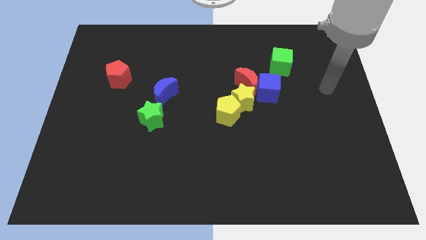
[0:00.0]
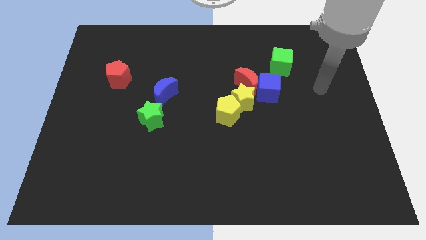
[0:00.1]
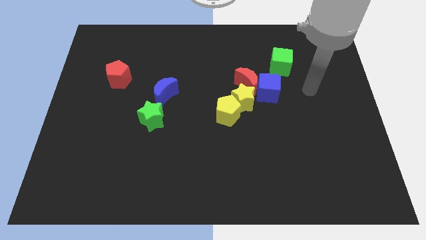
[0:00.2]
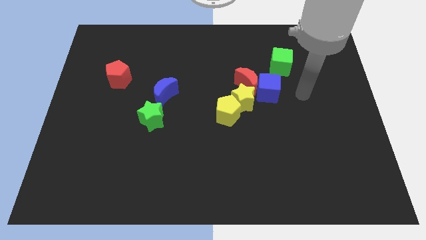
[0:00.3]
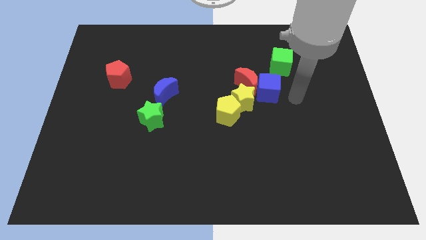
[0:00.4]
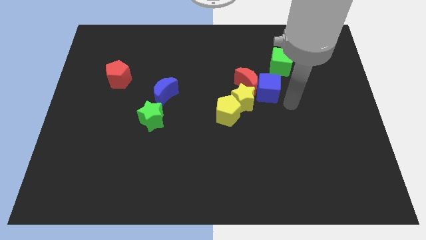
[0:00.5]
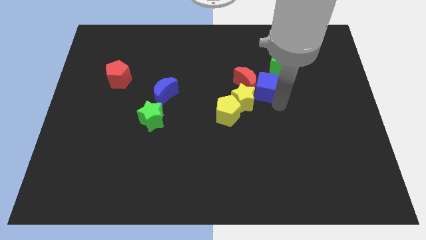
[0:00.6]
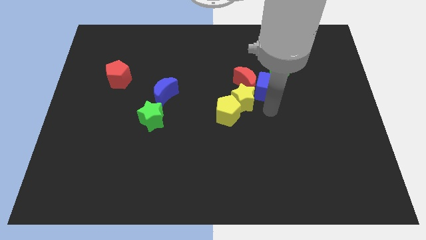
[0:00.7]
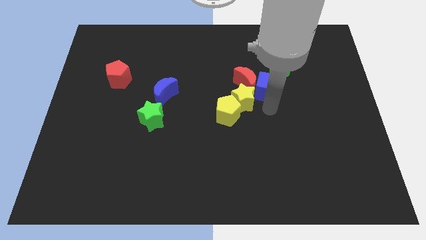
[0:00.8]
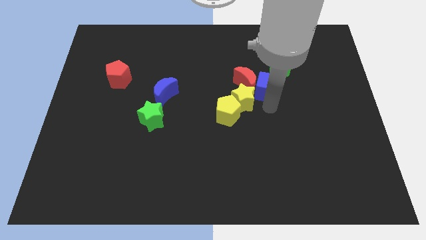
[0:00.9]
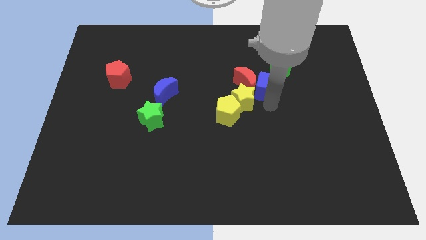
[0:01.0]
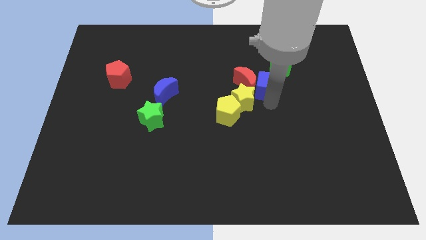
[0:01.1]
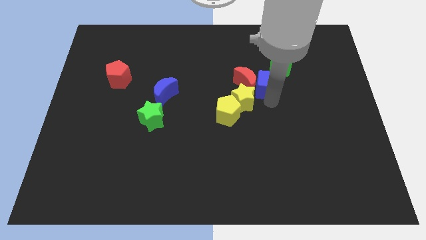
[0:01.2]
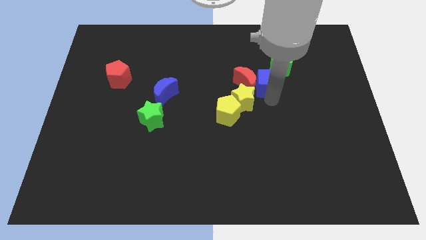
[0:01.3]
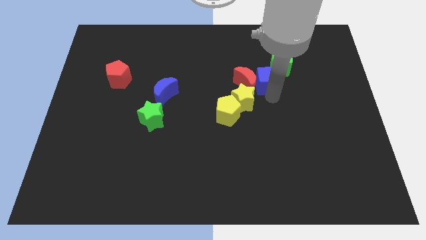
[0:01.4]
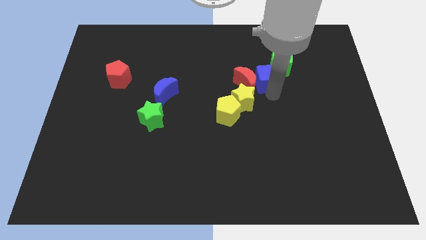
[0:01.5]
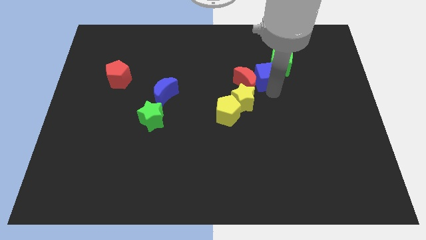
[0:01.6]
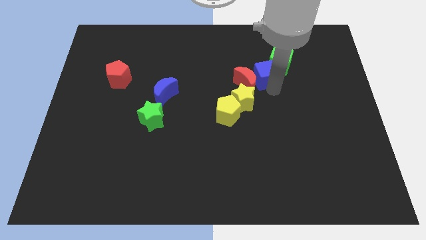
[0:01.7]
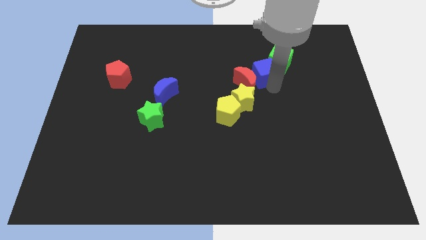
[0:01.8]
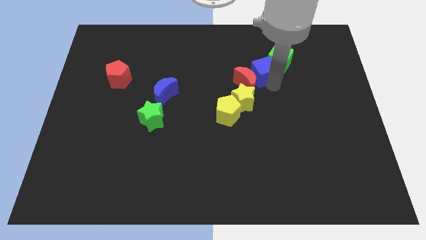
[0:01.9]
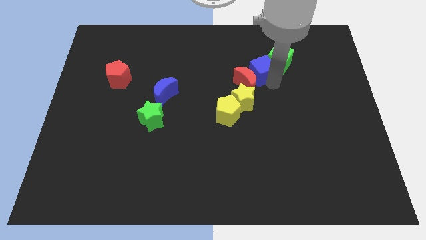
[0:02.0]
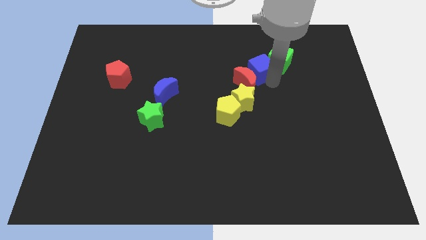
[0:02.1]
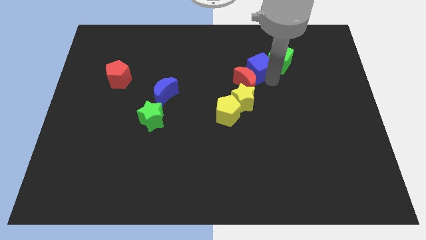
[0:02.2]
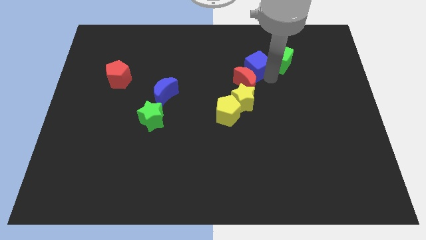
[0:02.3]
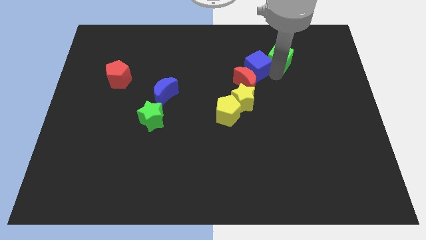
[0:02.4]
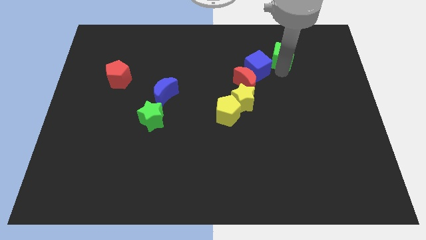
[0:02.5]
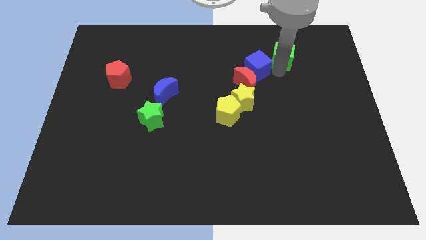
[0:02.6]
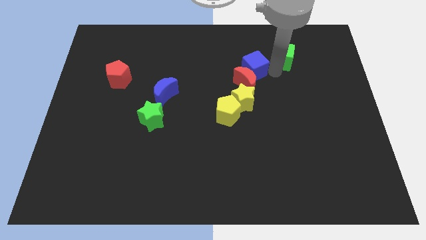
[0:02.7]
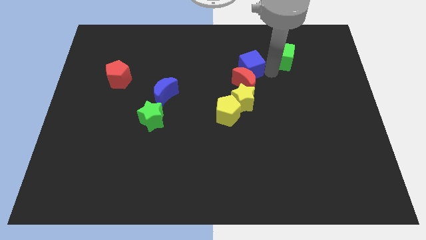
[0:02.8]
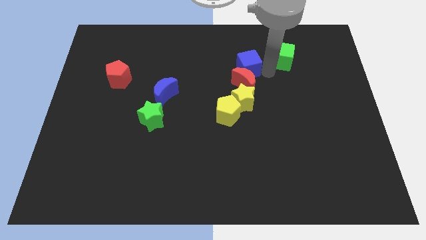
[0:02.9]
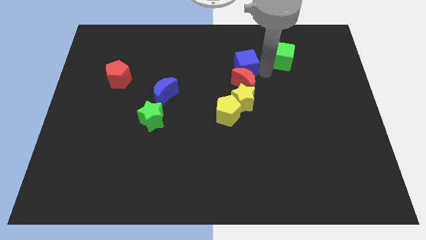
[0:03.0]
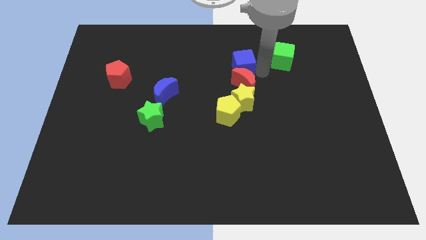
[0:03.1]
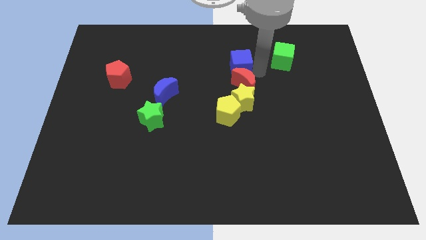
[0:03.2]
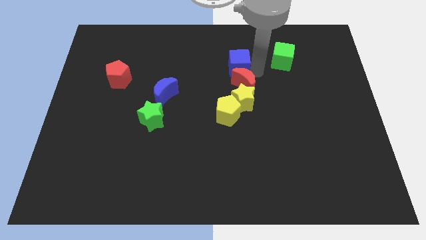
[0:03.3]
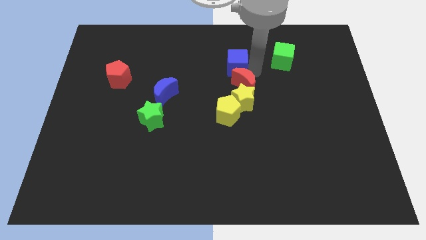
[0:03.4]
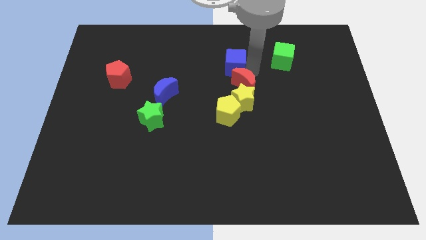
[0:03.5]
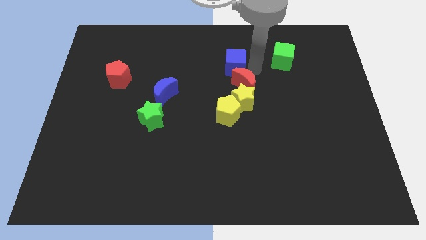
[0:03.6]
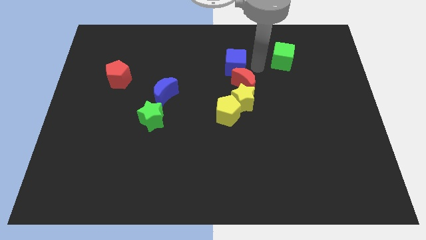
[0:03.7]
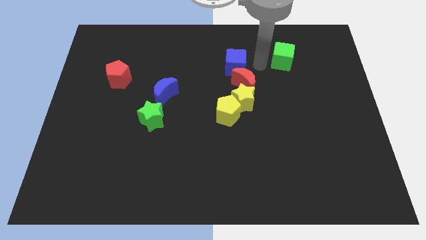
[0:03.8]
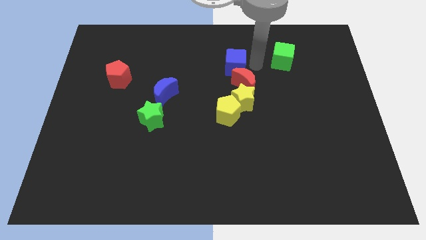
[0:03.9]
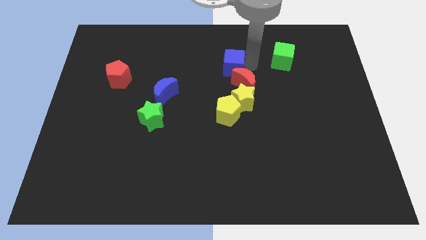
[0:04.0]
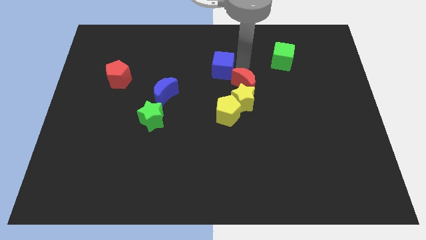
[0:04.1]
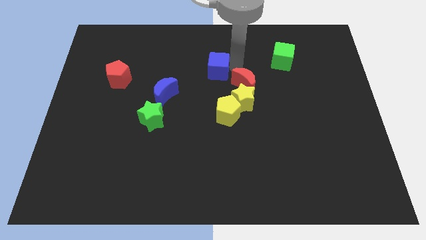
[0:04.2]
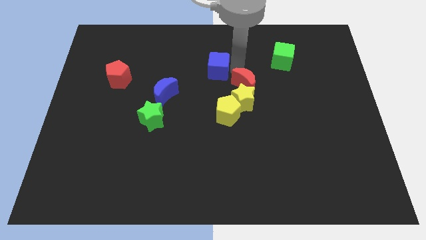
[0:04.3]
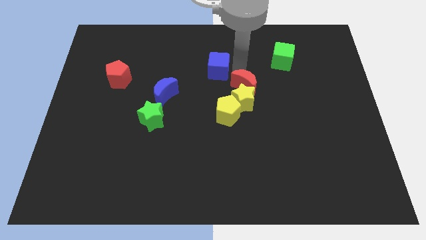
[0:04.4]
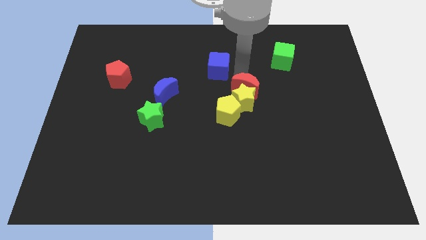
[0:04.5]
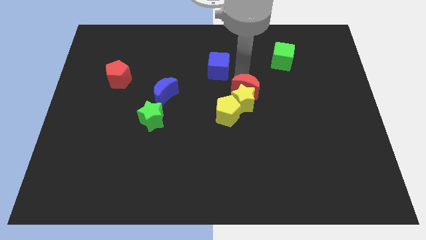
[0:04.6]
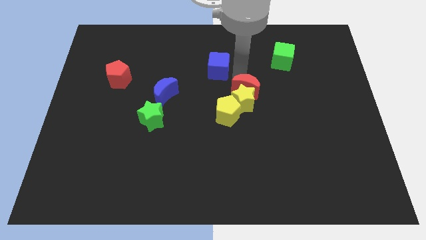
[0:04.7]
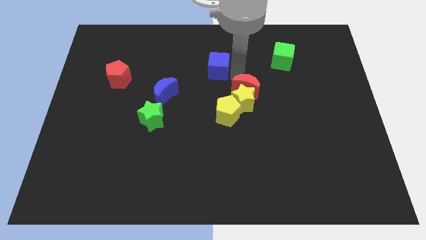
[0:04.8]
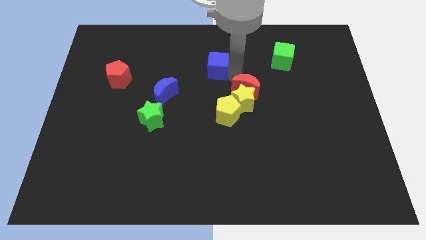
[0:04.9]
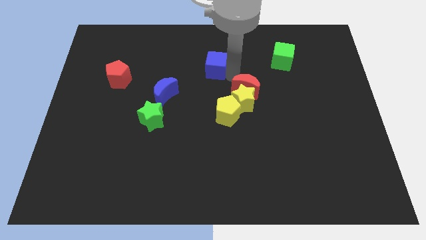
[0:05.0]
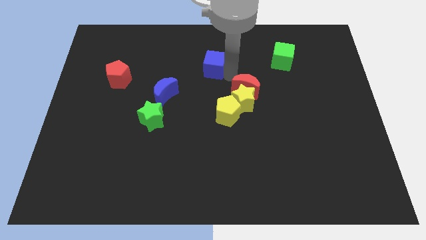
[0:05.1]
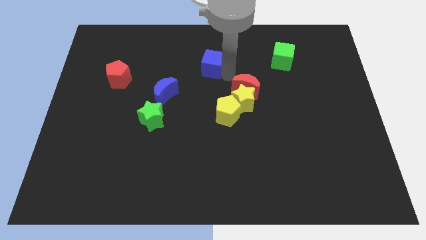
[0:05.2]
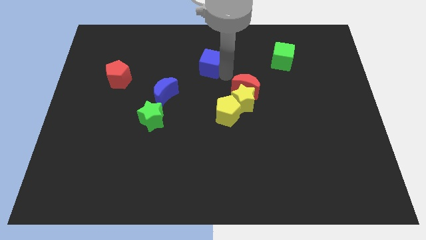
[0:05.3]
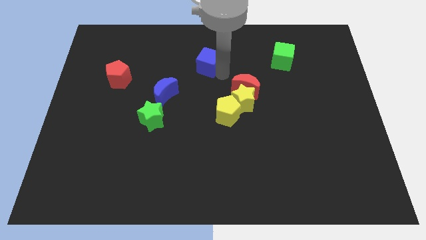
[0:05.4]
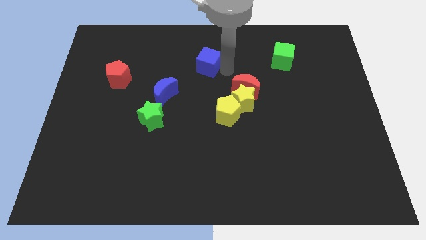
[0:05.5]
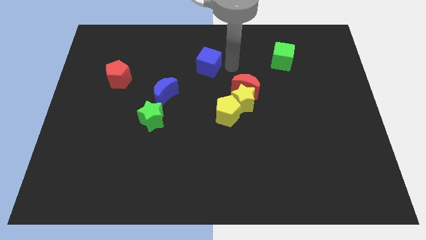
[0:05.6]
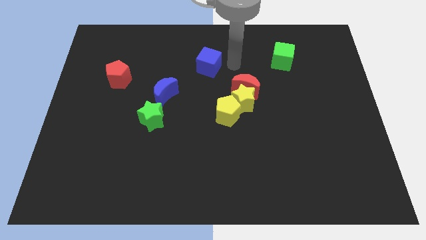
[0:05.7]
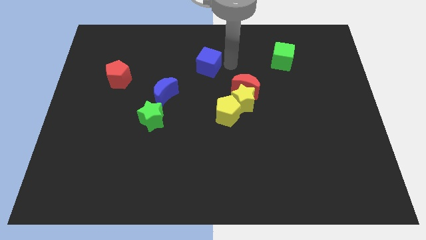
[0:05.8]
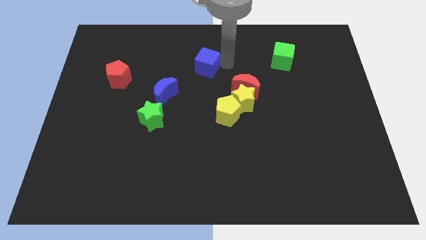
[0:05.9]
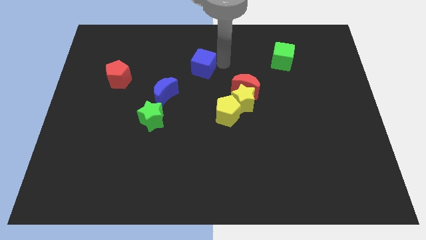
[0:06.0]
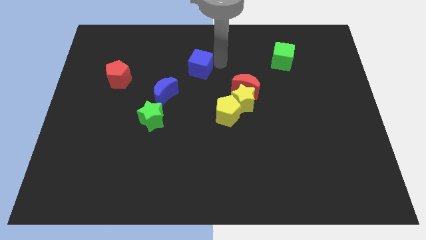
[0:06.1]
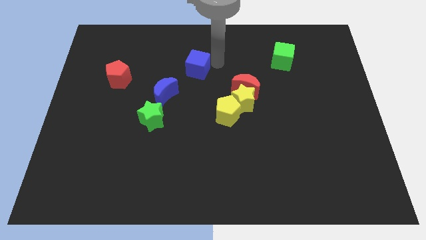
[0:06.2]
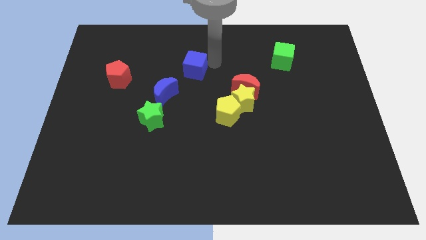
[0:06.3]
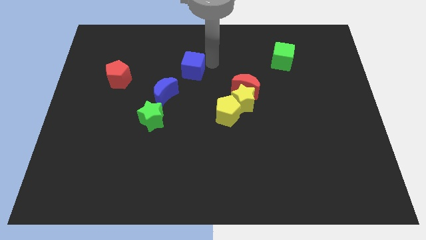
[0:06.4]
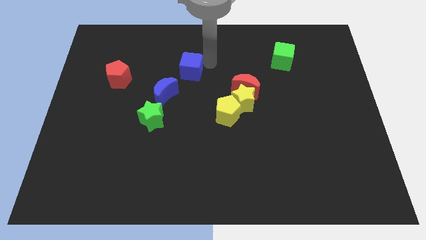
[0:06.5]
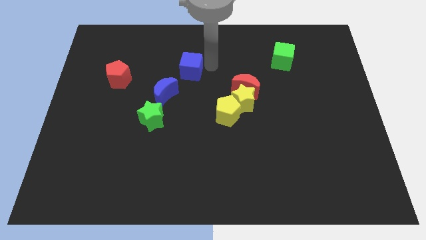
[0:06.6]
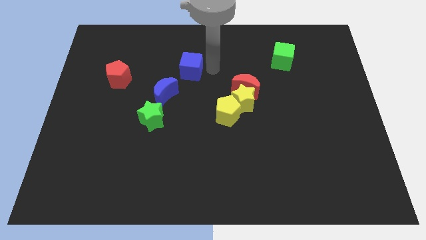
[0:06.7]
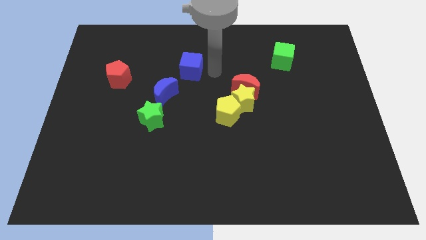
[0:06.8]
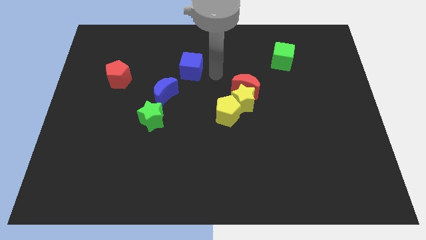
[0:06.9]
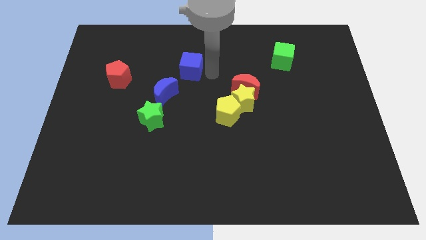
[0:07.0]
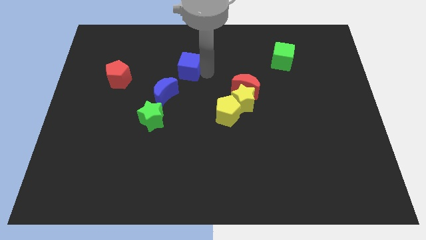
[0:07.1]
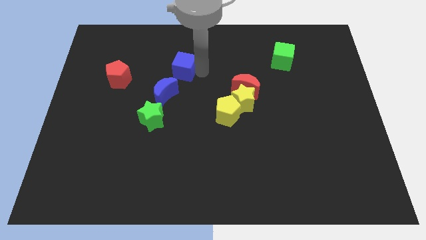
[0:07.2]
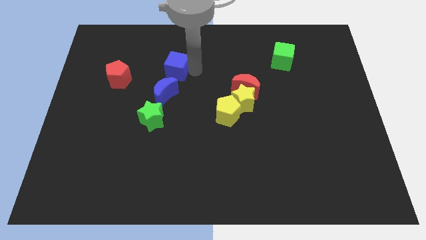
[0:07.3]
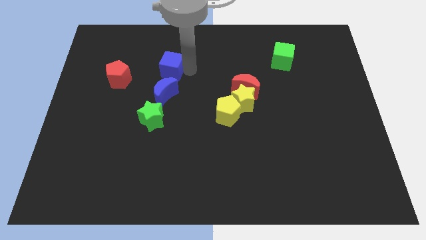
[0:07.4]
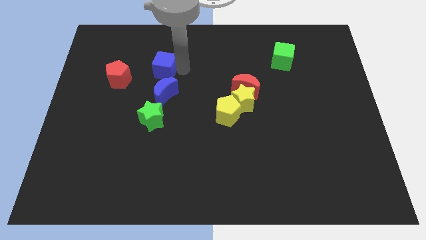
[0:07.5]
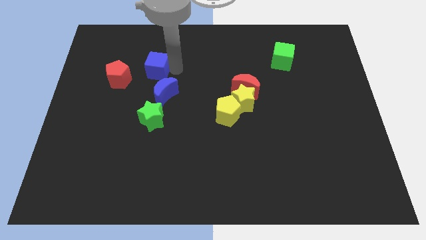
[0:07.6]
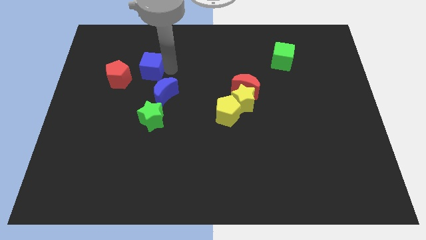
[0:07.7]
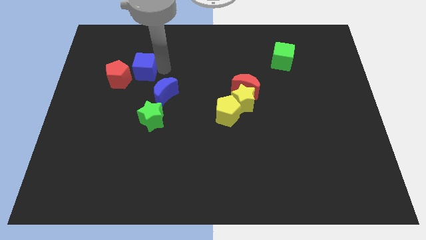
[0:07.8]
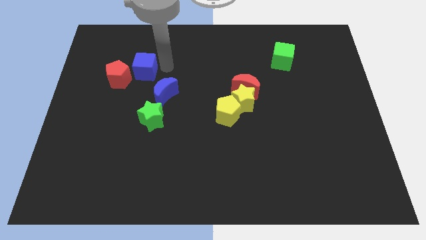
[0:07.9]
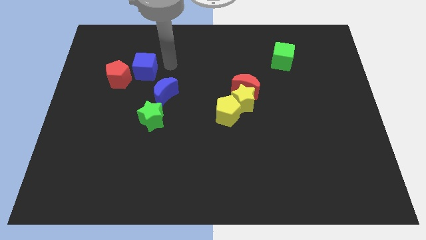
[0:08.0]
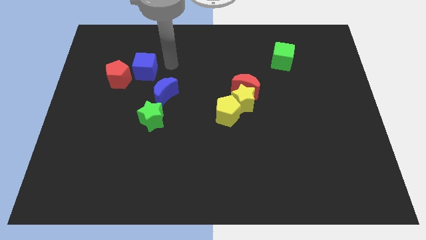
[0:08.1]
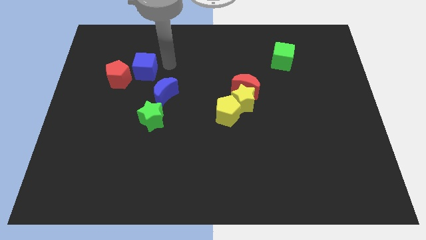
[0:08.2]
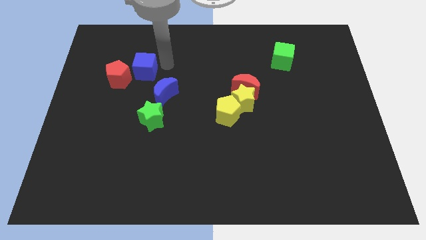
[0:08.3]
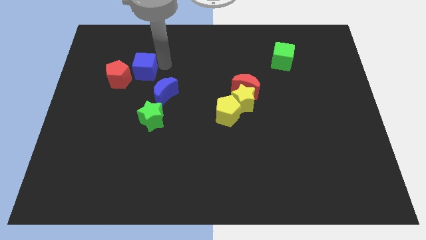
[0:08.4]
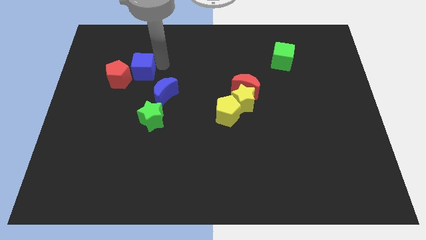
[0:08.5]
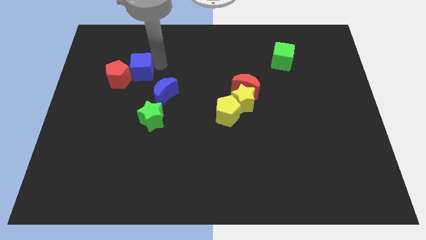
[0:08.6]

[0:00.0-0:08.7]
move the blue cube to the red pentagon
